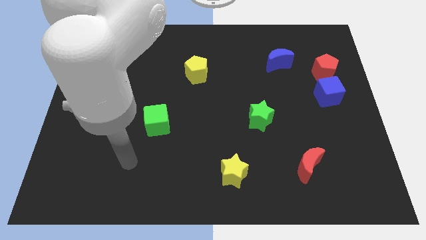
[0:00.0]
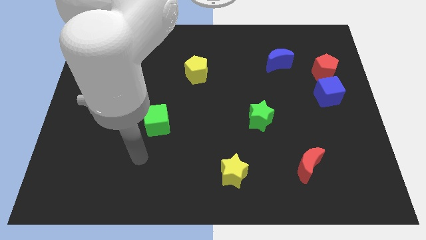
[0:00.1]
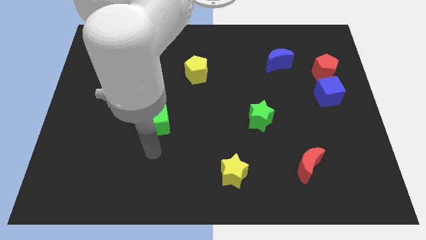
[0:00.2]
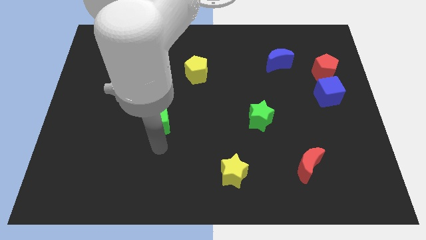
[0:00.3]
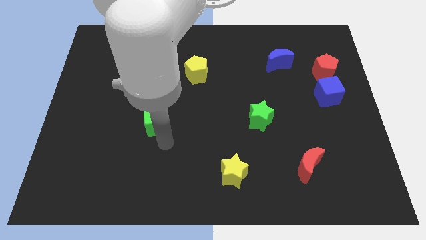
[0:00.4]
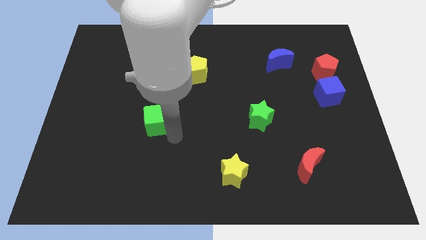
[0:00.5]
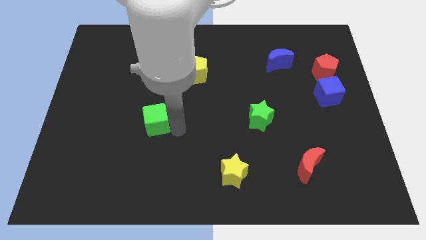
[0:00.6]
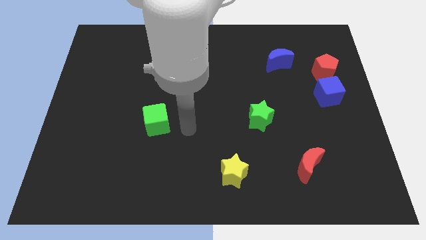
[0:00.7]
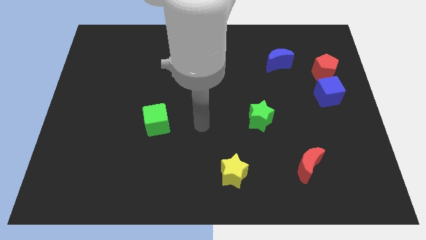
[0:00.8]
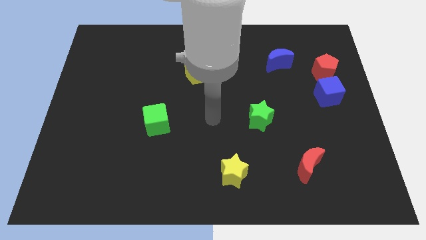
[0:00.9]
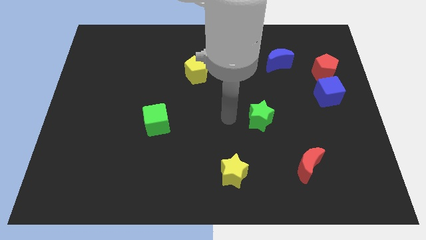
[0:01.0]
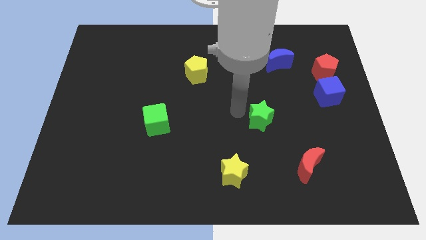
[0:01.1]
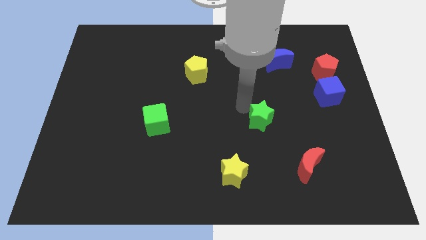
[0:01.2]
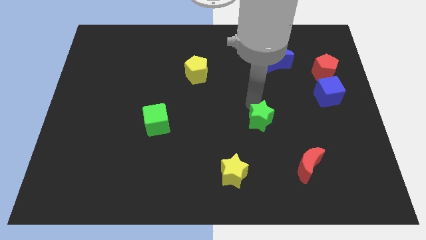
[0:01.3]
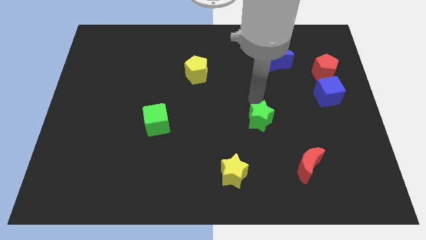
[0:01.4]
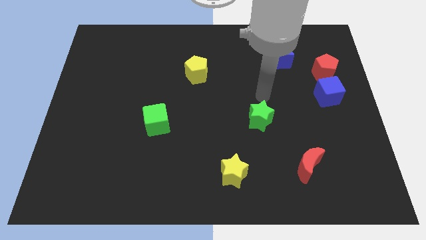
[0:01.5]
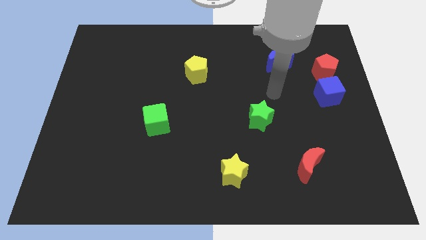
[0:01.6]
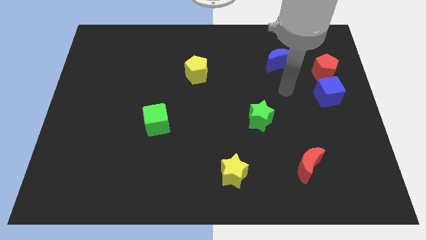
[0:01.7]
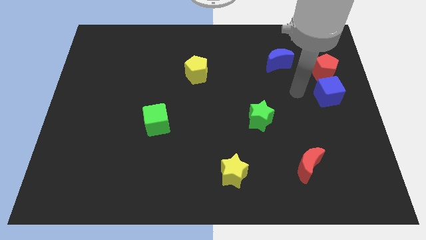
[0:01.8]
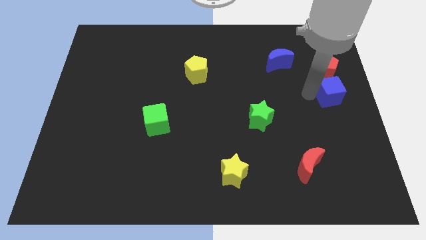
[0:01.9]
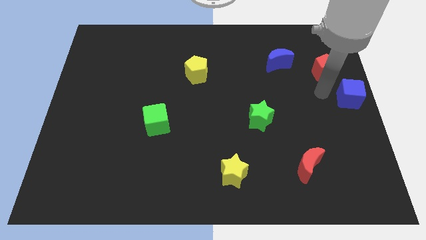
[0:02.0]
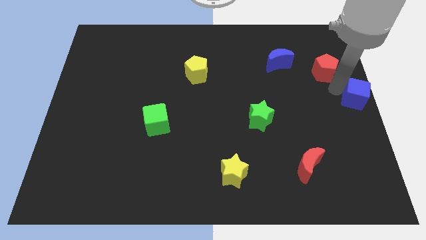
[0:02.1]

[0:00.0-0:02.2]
pull the red pentagon apart from the blue cube

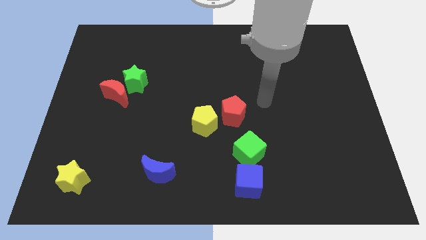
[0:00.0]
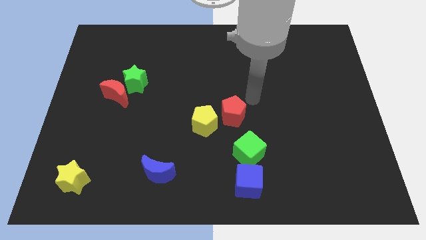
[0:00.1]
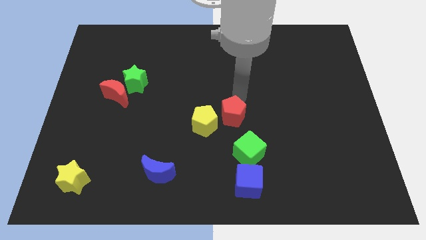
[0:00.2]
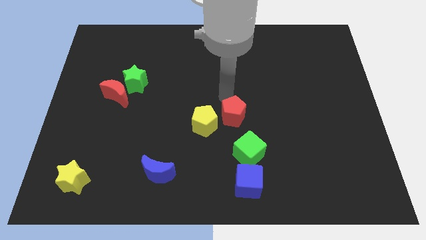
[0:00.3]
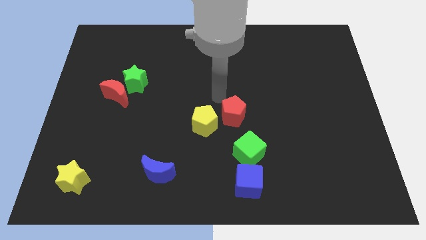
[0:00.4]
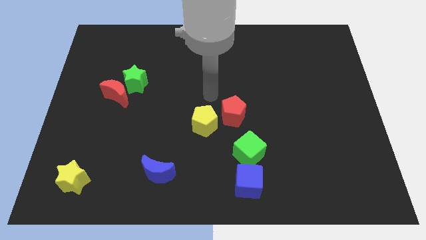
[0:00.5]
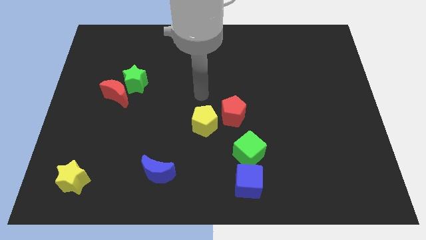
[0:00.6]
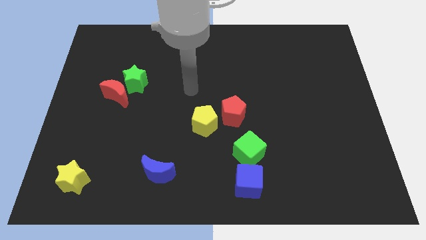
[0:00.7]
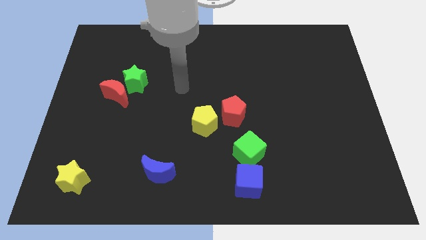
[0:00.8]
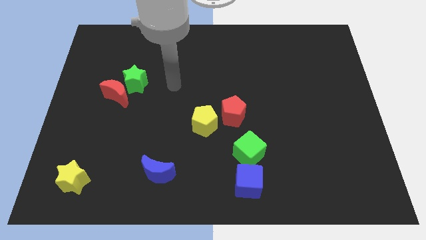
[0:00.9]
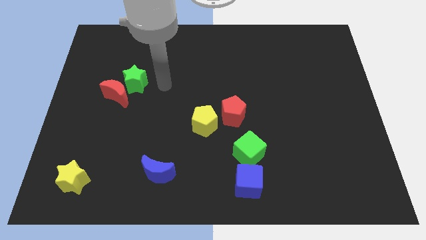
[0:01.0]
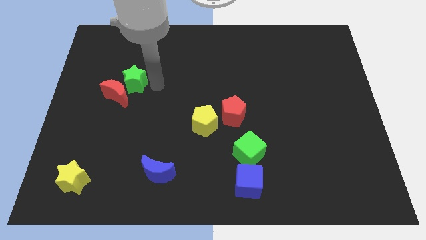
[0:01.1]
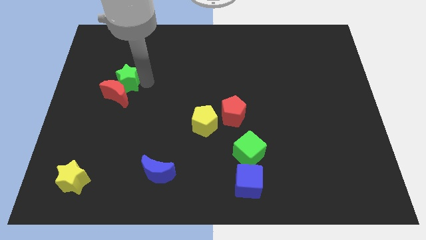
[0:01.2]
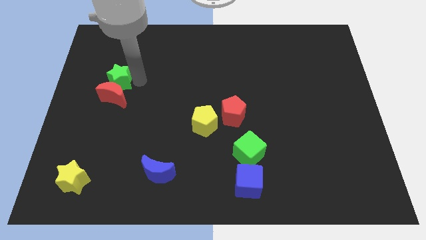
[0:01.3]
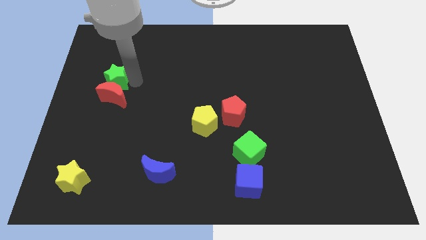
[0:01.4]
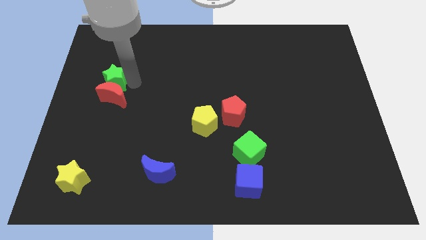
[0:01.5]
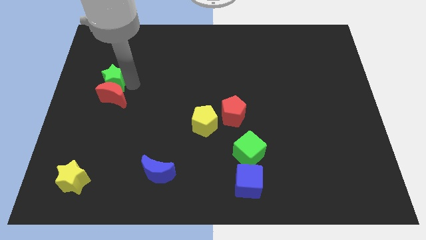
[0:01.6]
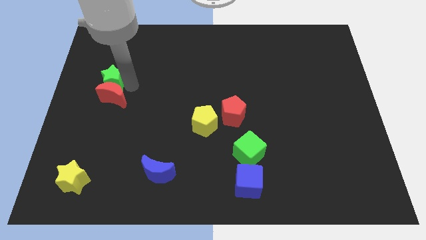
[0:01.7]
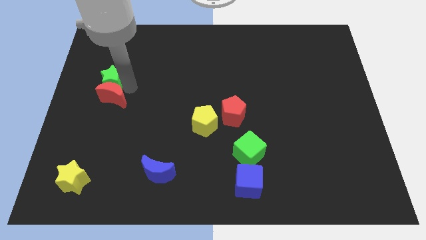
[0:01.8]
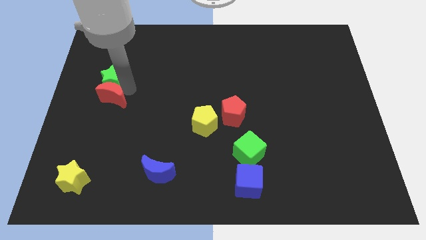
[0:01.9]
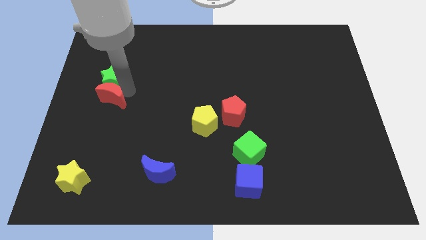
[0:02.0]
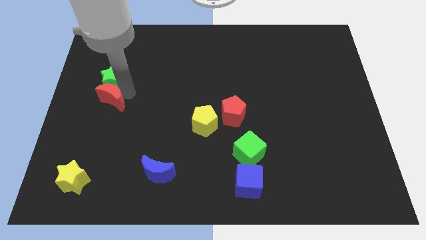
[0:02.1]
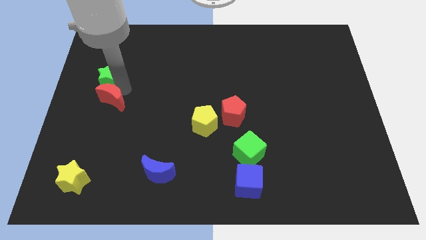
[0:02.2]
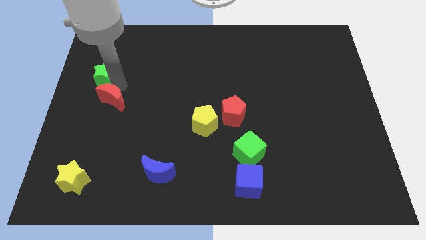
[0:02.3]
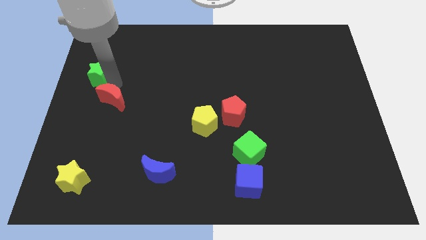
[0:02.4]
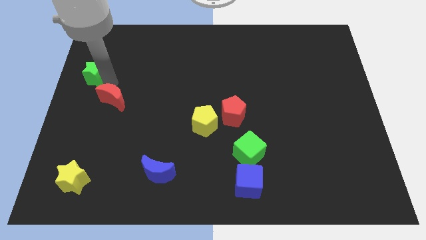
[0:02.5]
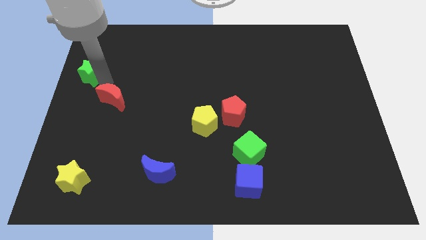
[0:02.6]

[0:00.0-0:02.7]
separate the red moon from the green star

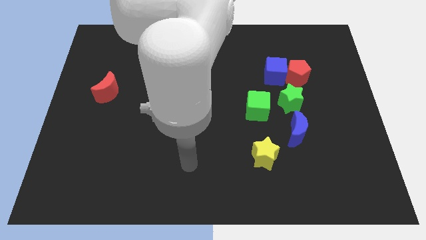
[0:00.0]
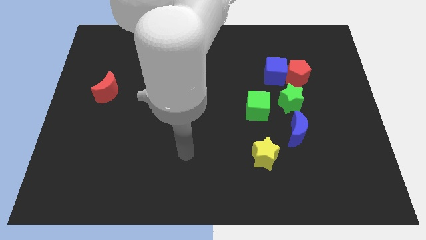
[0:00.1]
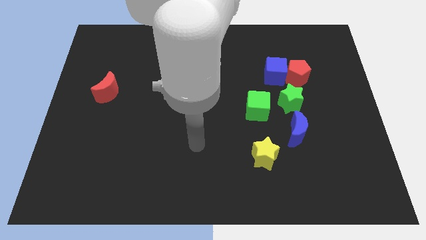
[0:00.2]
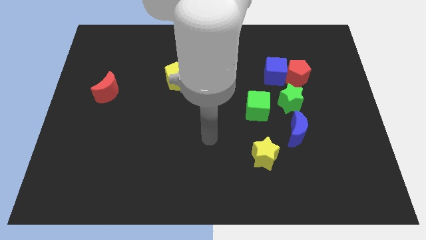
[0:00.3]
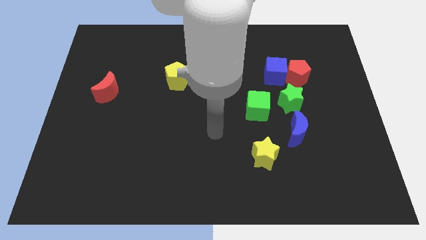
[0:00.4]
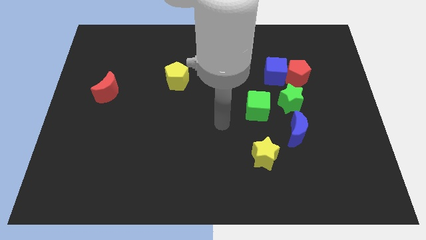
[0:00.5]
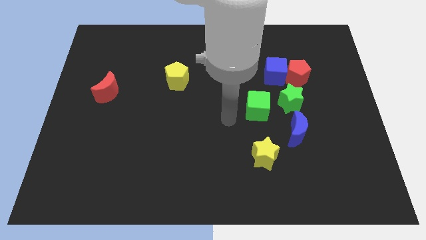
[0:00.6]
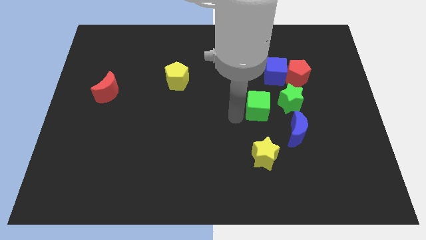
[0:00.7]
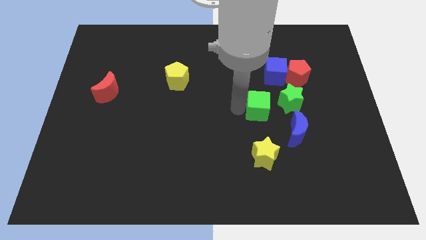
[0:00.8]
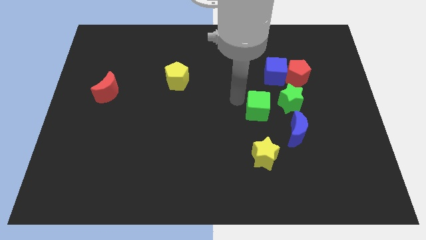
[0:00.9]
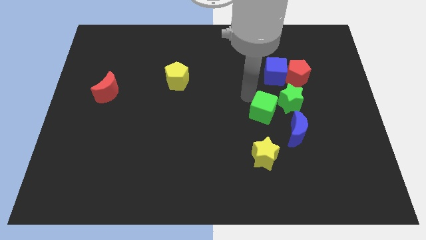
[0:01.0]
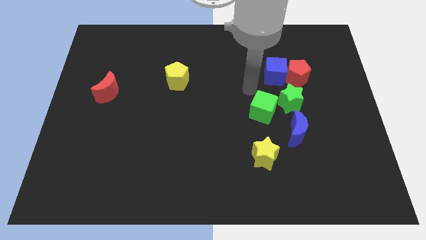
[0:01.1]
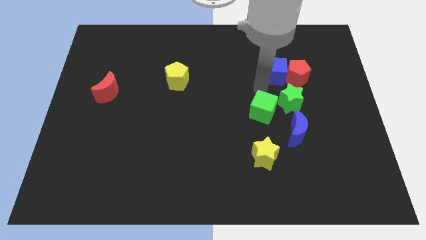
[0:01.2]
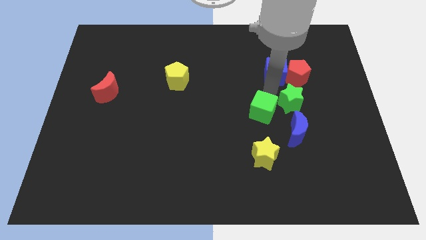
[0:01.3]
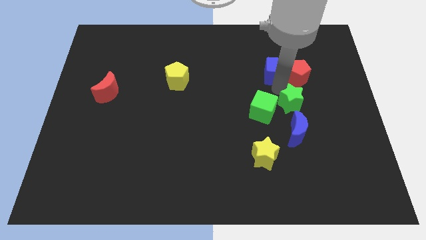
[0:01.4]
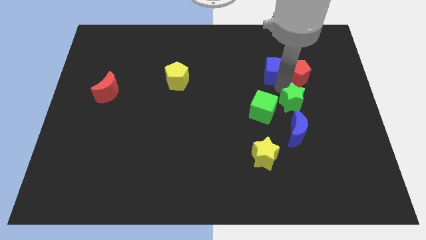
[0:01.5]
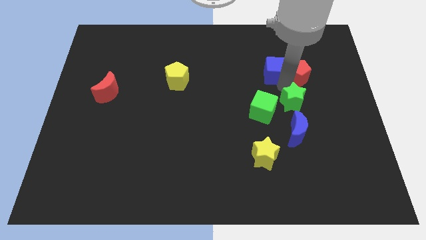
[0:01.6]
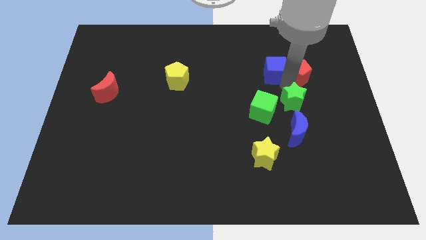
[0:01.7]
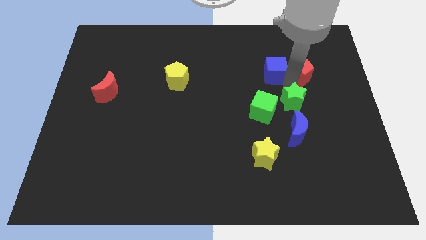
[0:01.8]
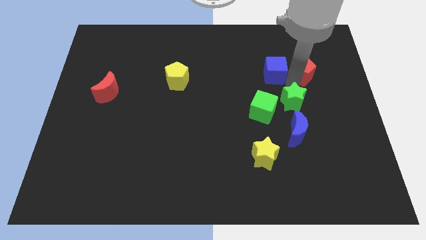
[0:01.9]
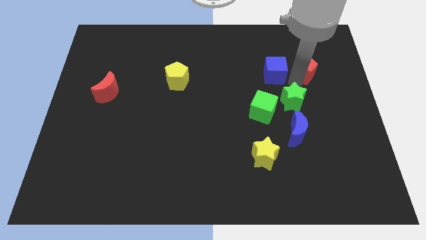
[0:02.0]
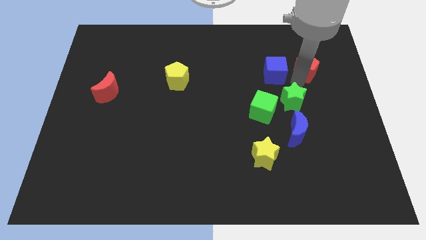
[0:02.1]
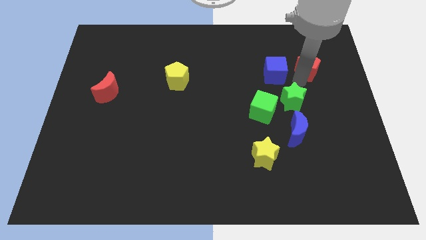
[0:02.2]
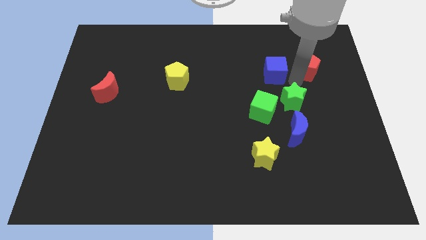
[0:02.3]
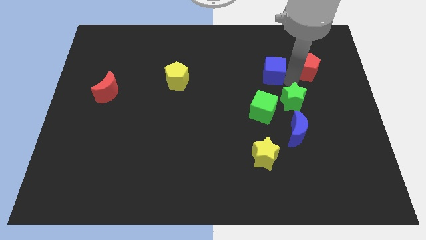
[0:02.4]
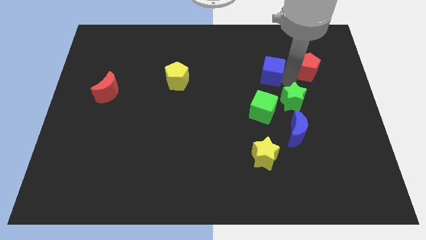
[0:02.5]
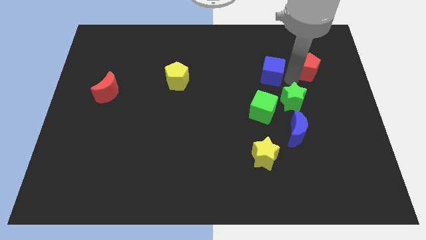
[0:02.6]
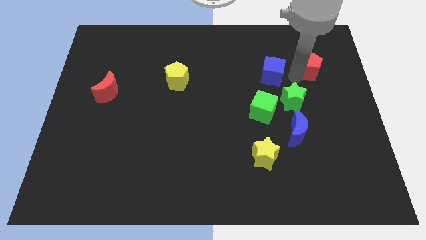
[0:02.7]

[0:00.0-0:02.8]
separate the red pentagon from the blue cube and green star

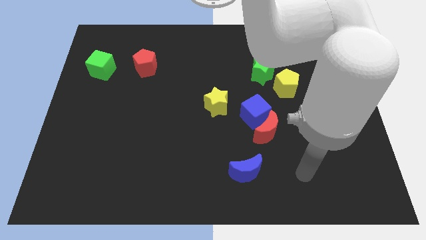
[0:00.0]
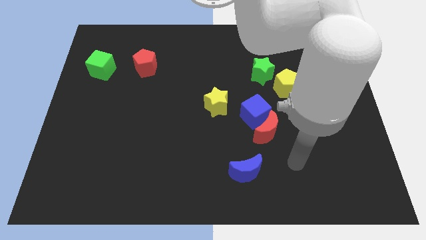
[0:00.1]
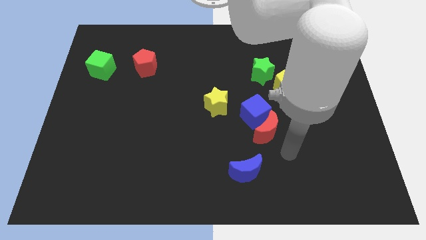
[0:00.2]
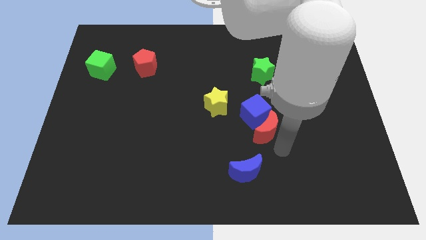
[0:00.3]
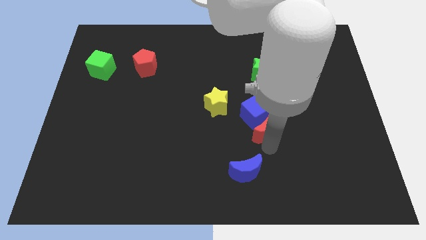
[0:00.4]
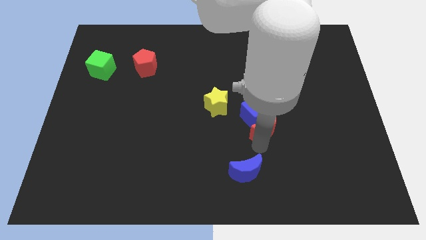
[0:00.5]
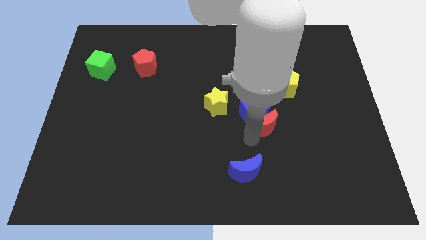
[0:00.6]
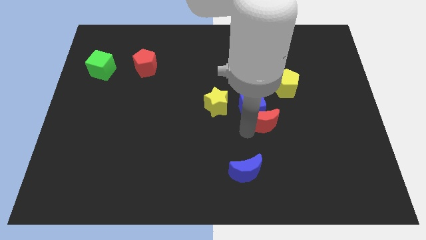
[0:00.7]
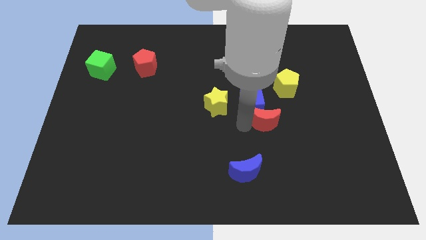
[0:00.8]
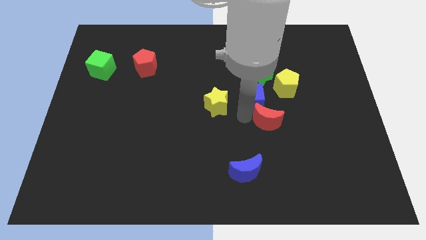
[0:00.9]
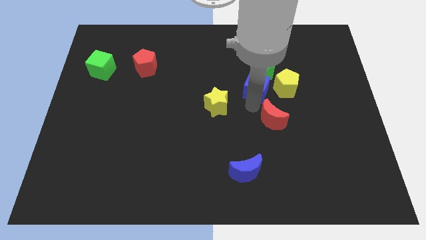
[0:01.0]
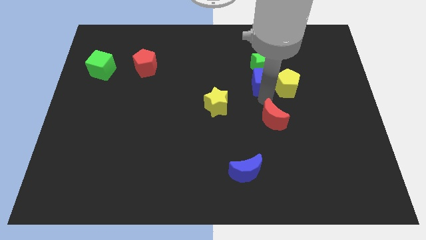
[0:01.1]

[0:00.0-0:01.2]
separate the red moon from the blue cube

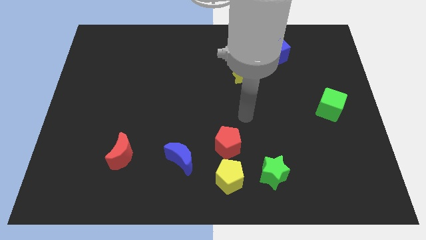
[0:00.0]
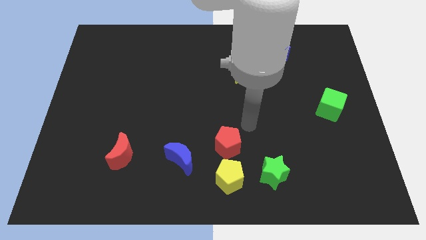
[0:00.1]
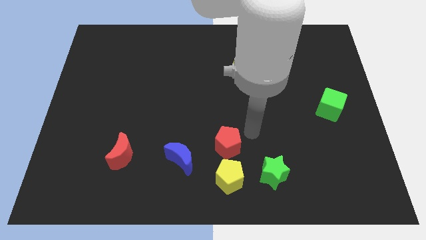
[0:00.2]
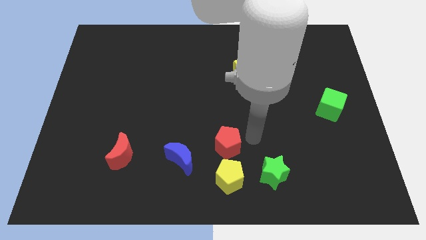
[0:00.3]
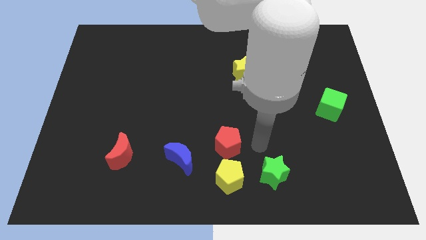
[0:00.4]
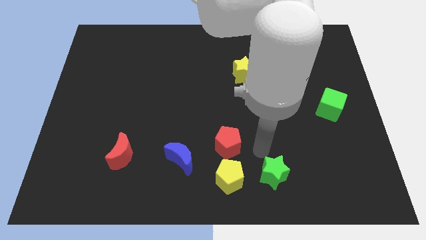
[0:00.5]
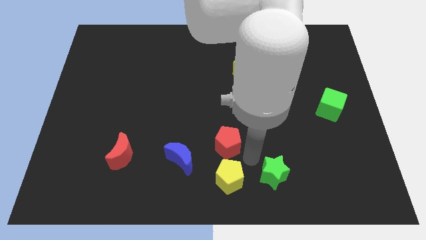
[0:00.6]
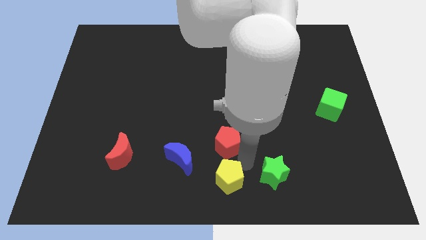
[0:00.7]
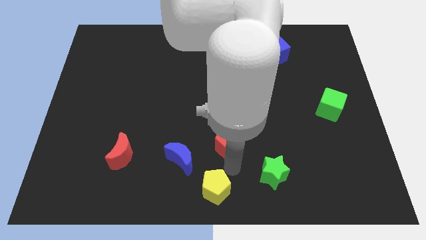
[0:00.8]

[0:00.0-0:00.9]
move the red pentagon away from the yellow pentagon
